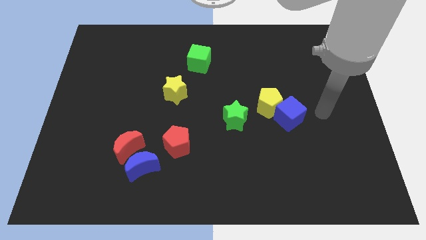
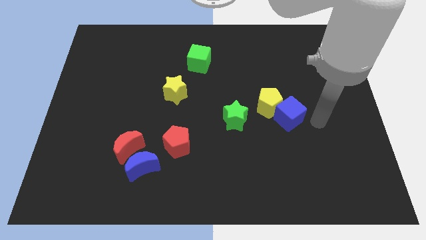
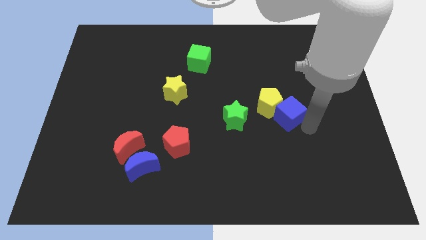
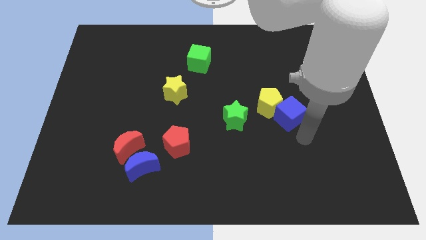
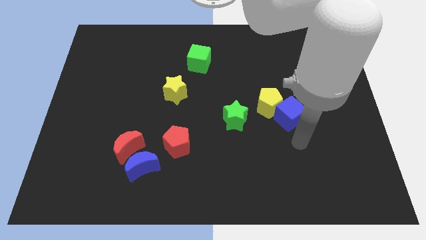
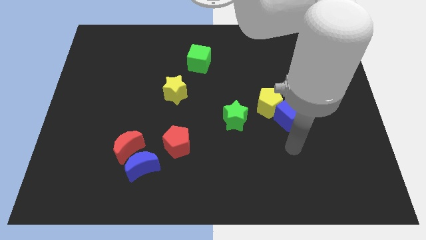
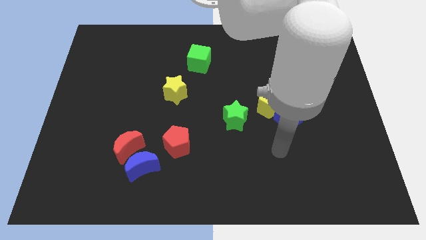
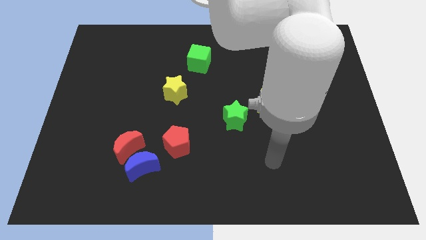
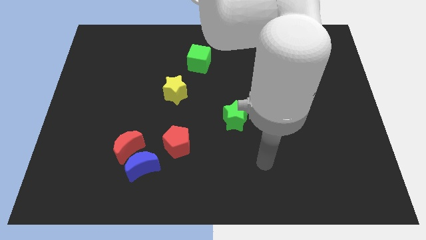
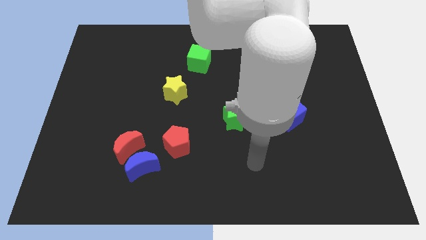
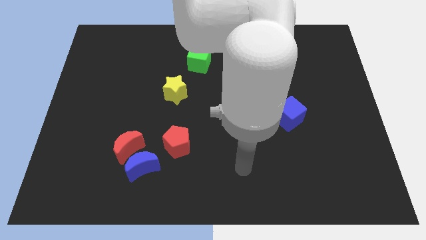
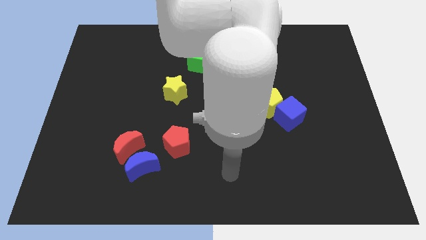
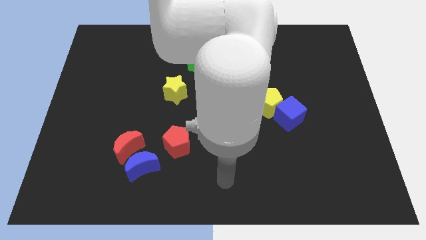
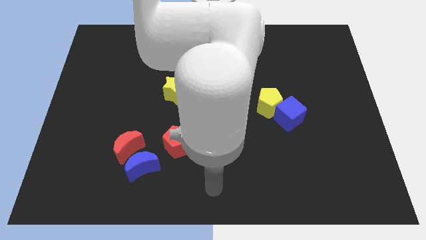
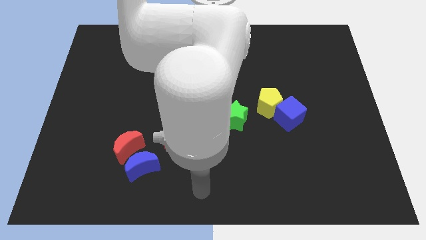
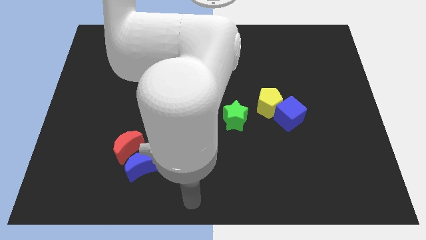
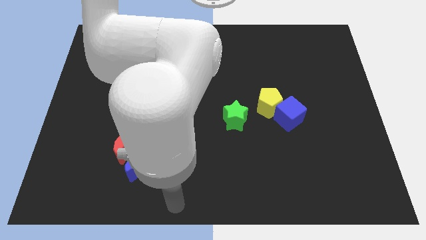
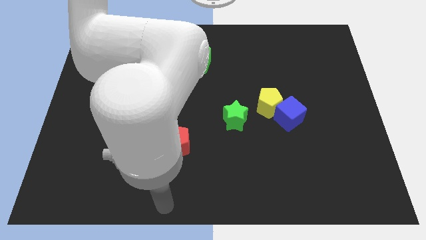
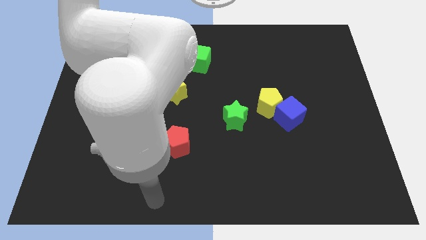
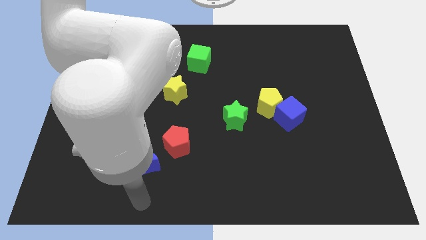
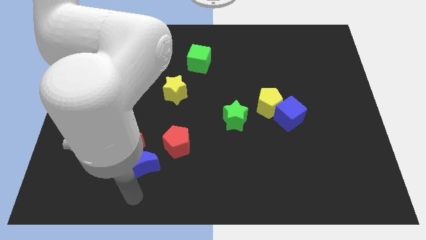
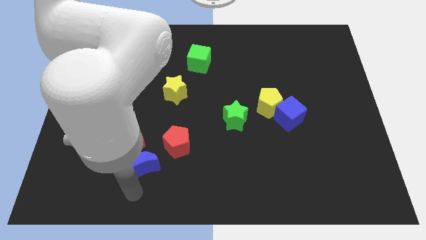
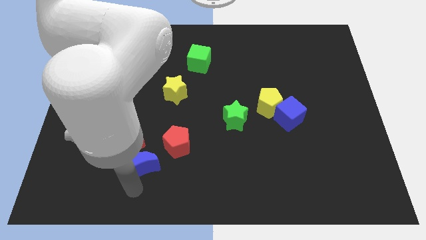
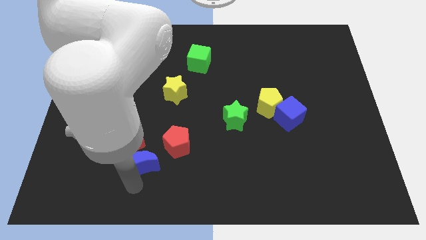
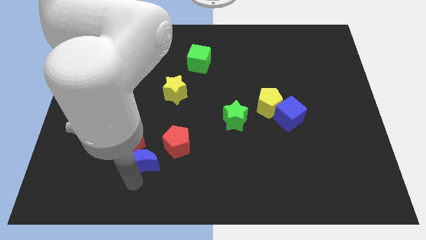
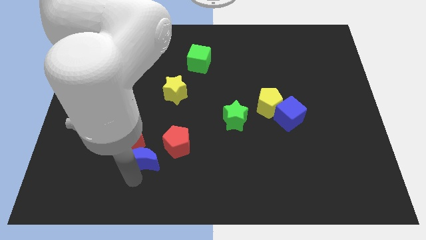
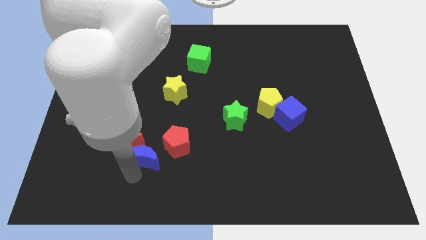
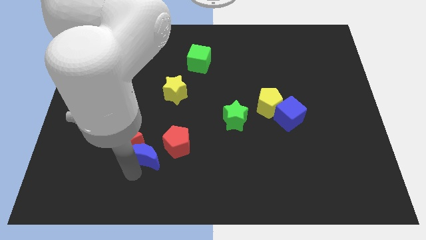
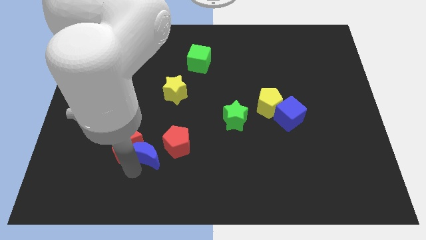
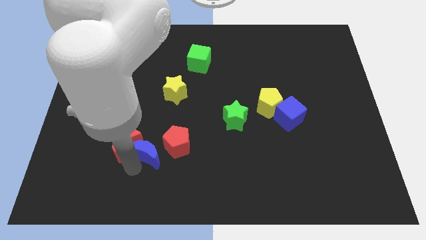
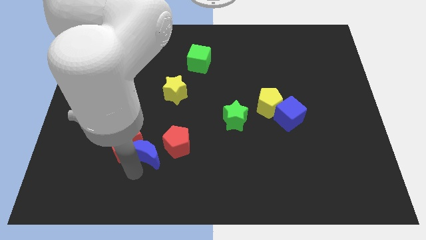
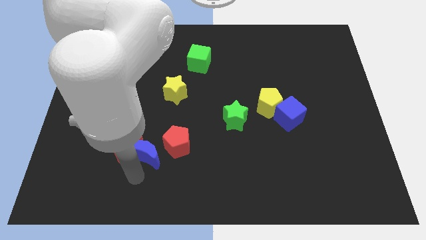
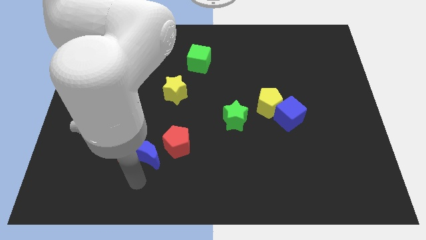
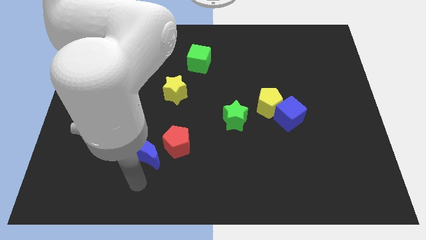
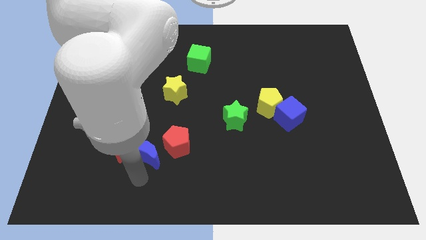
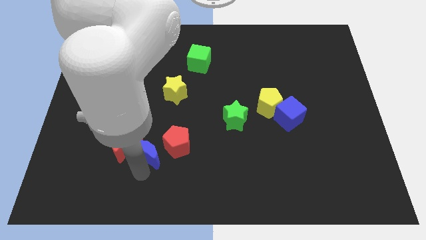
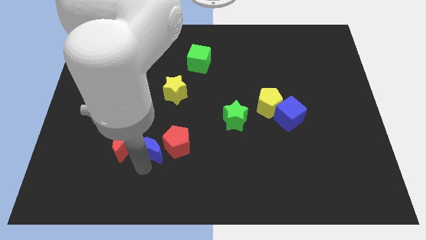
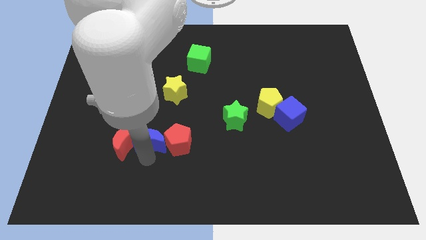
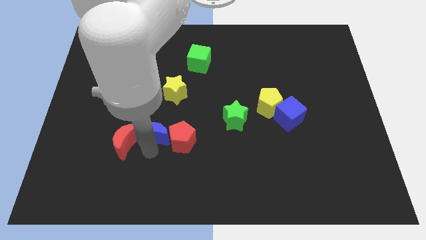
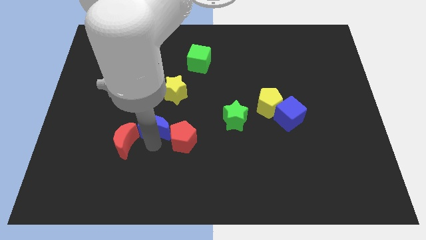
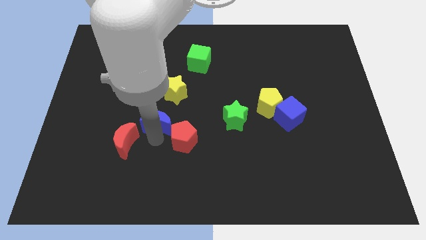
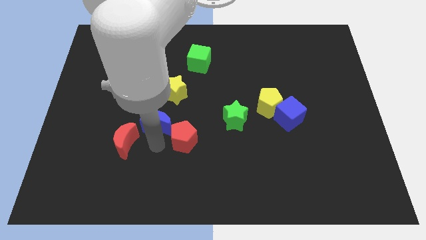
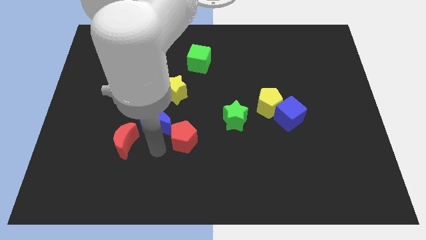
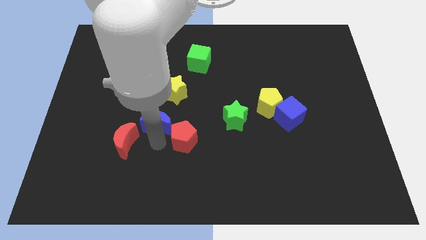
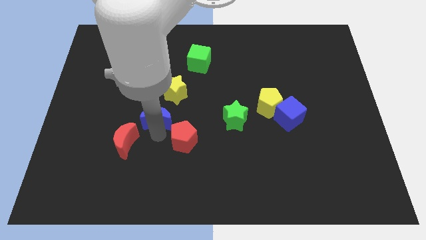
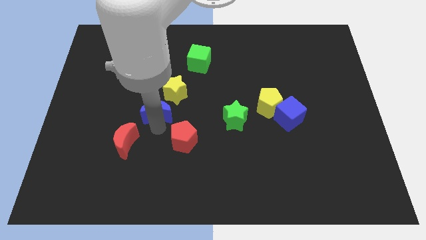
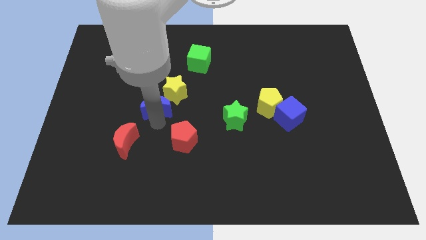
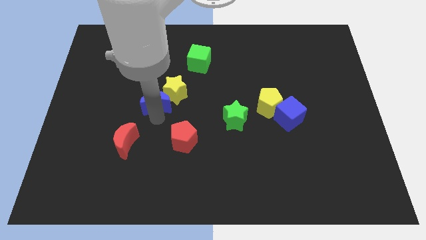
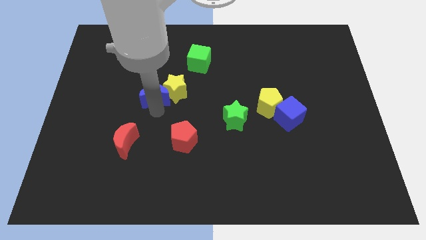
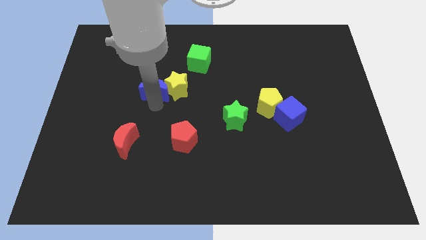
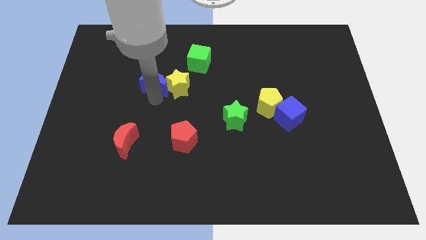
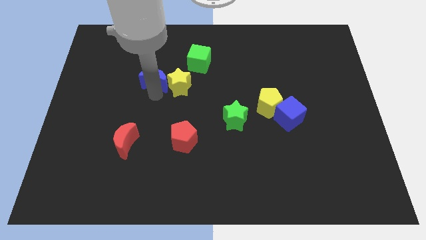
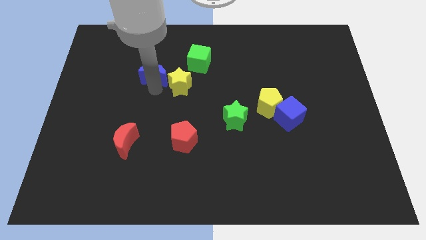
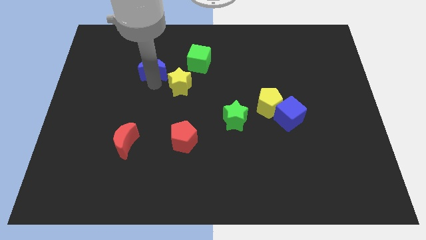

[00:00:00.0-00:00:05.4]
push the blue moon left of the green cube

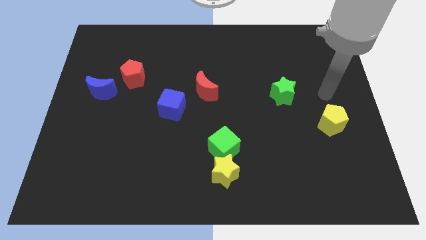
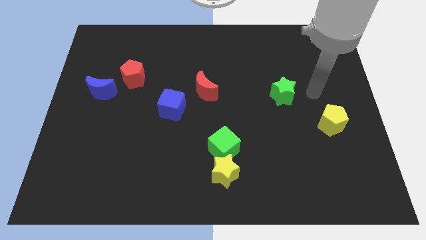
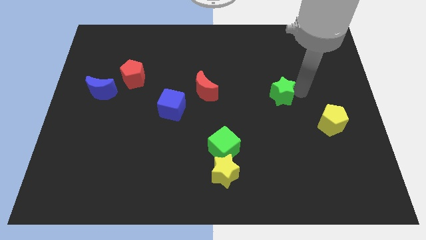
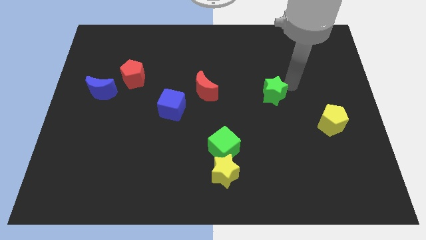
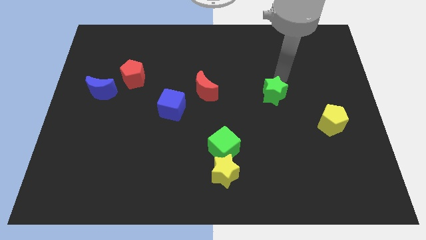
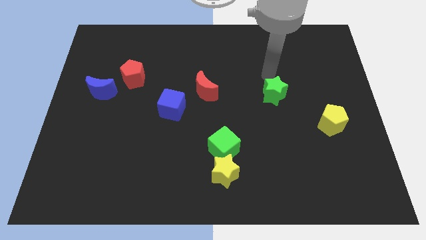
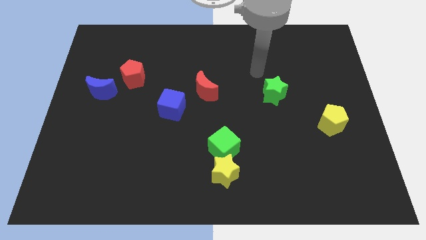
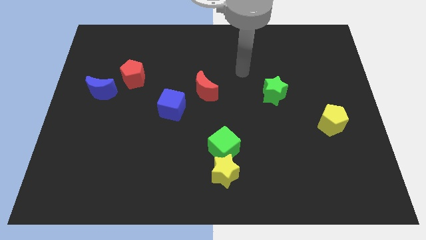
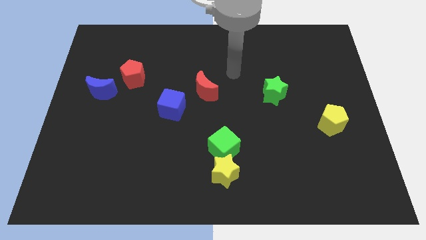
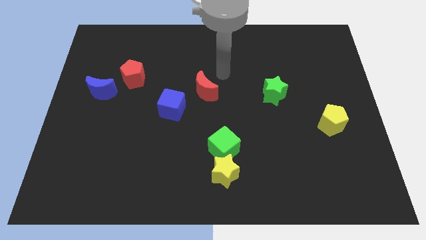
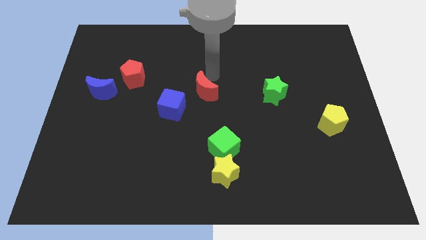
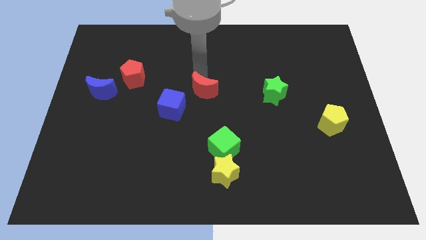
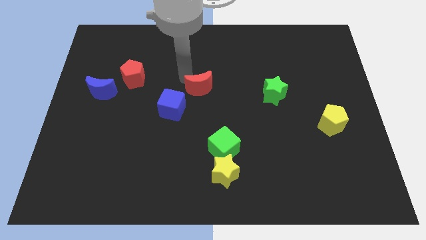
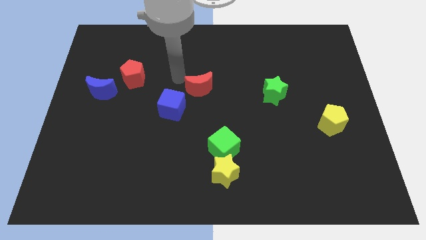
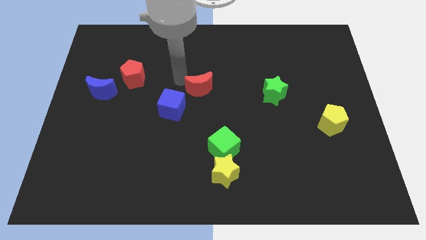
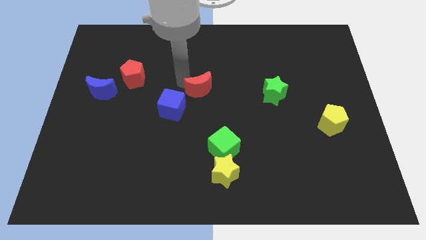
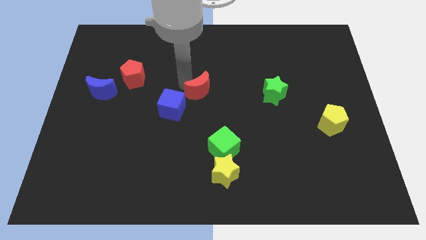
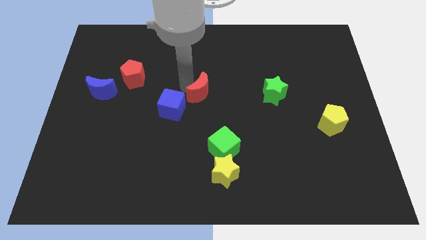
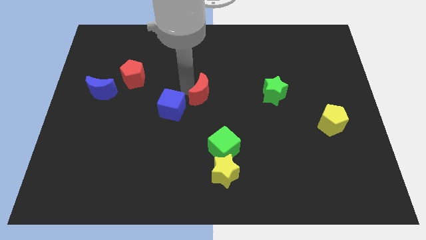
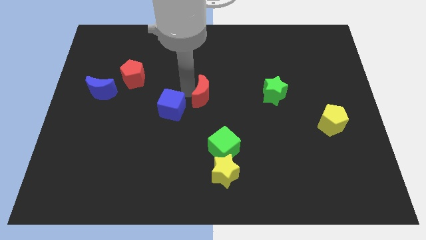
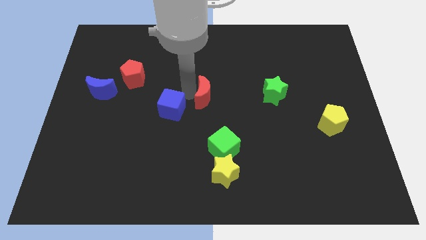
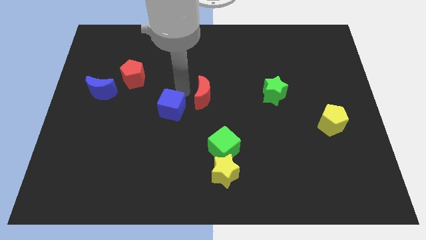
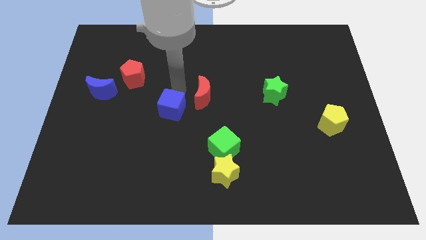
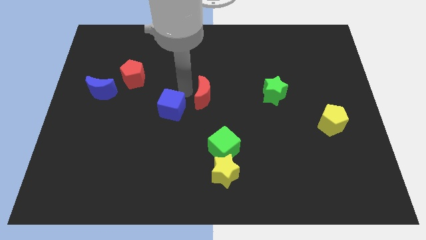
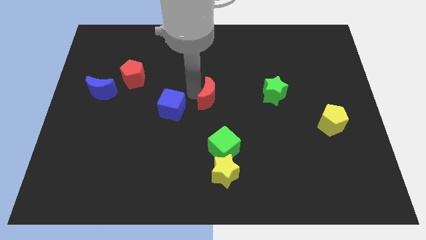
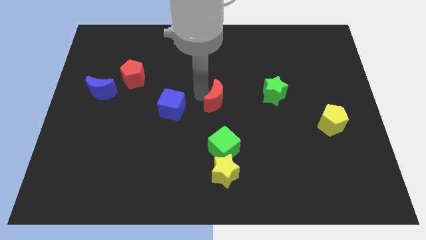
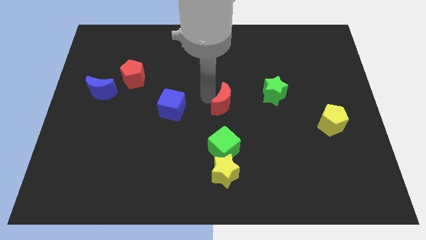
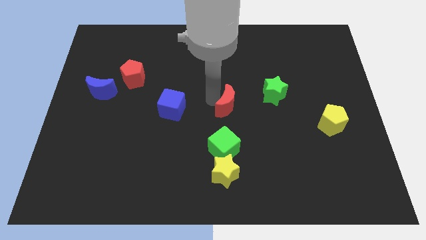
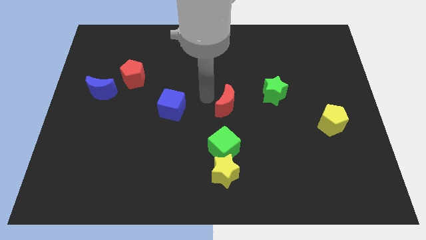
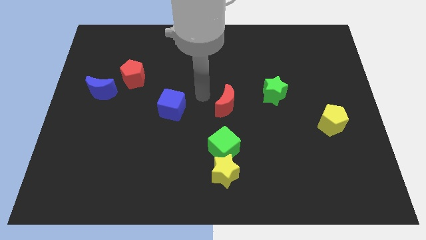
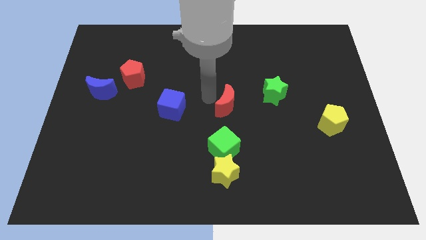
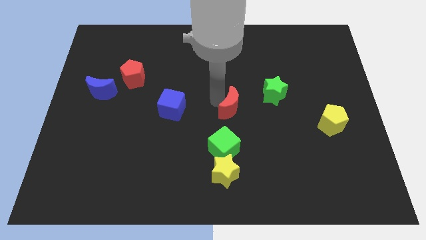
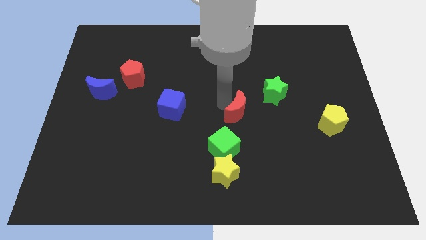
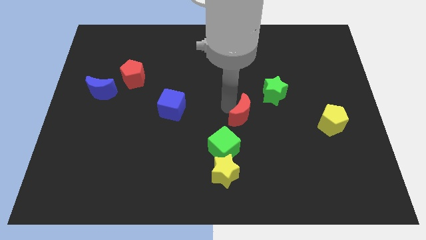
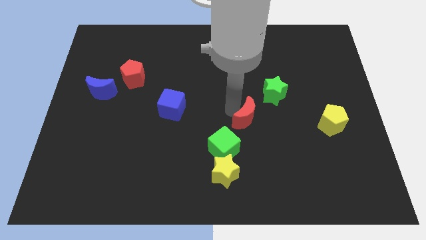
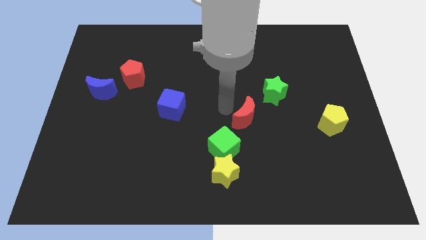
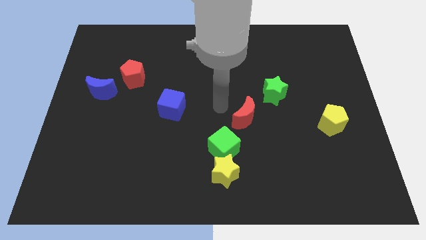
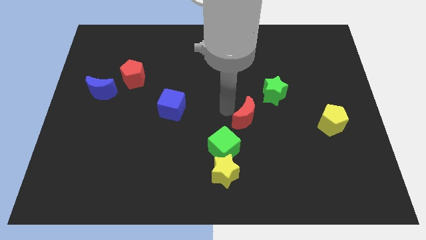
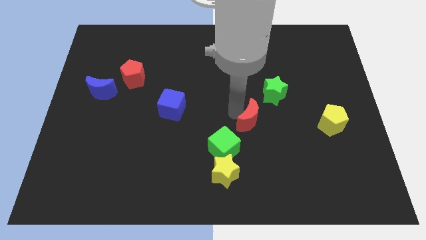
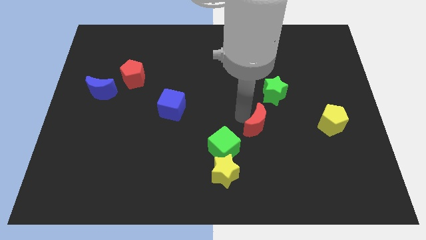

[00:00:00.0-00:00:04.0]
push the red moon below the green star
